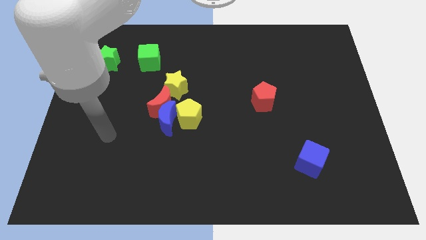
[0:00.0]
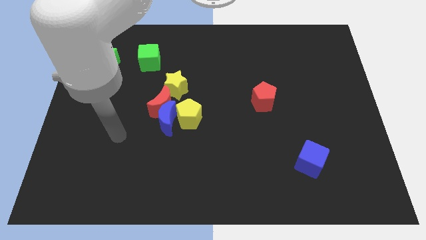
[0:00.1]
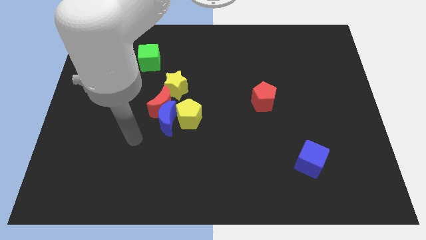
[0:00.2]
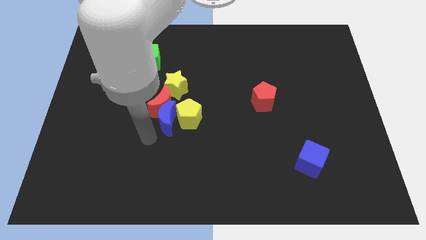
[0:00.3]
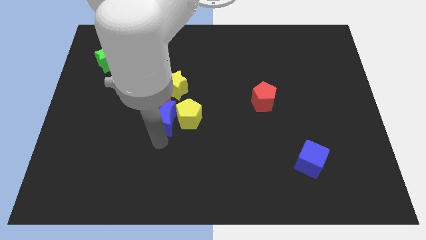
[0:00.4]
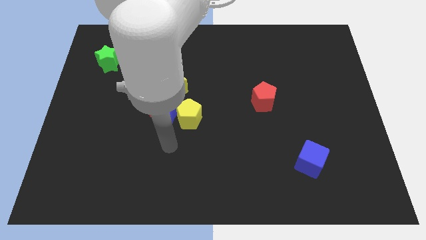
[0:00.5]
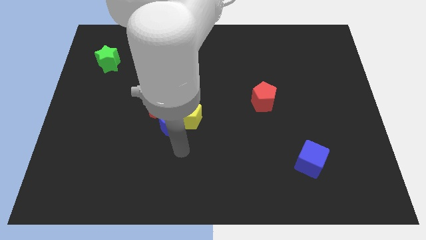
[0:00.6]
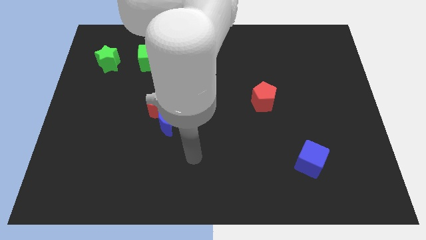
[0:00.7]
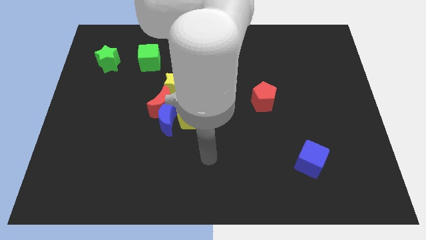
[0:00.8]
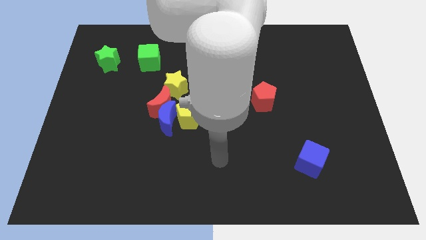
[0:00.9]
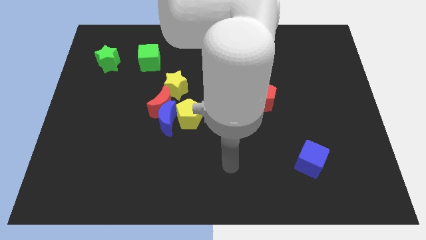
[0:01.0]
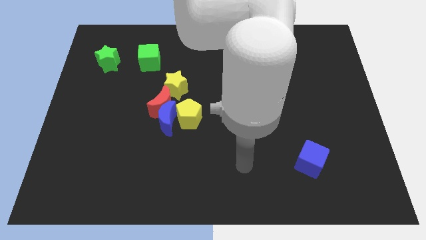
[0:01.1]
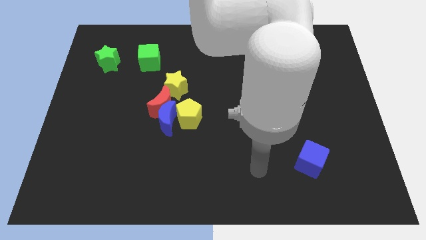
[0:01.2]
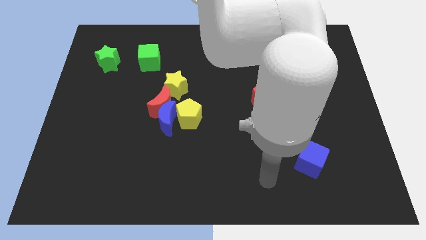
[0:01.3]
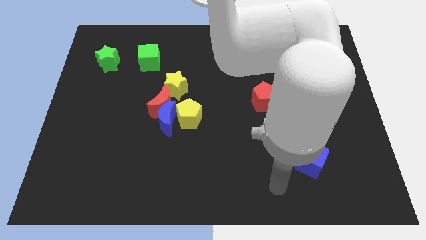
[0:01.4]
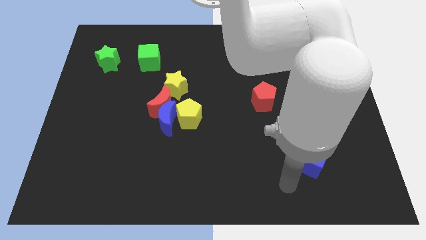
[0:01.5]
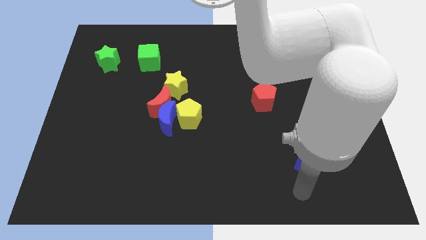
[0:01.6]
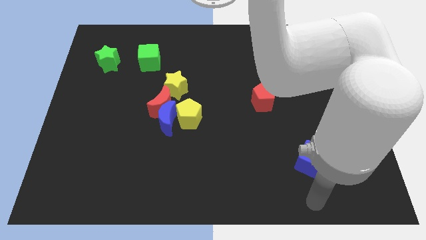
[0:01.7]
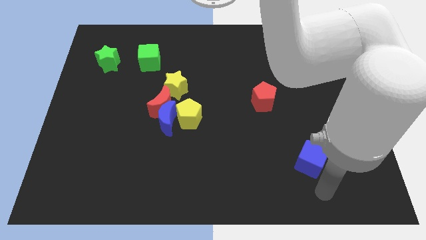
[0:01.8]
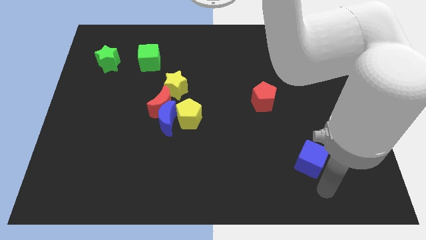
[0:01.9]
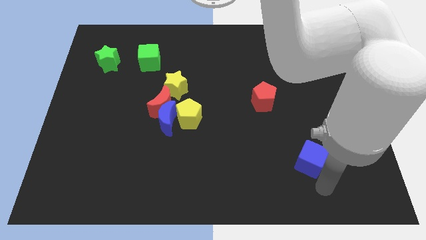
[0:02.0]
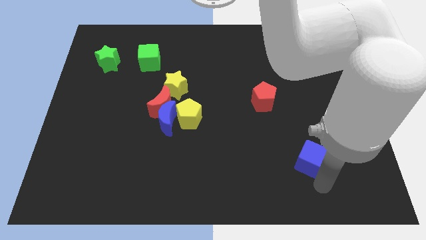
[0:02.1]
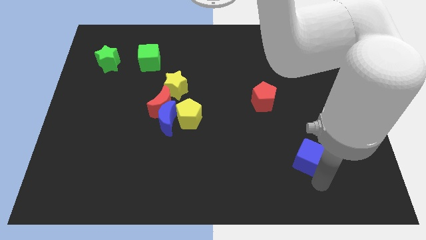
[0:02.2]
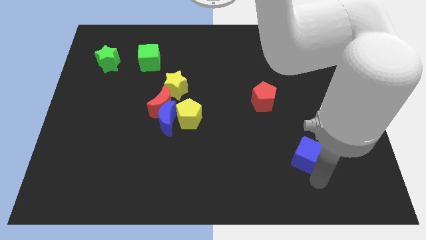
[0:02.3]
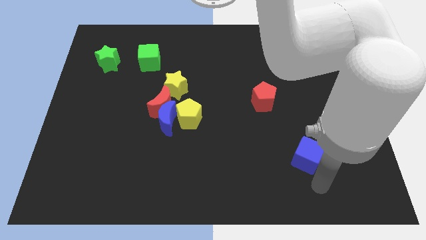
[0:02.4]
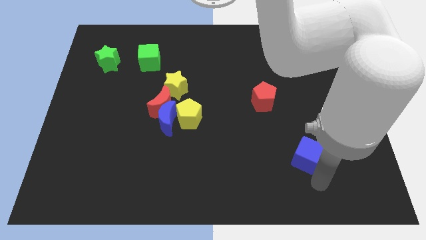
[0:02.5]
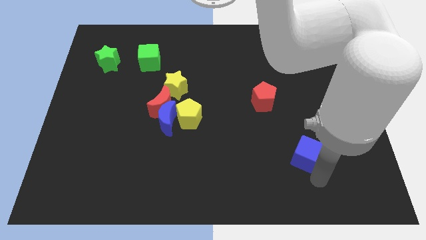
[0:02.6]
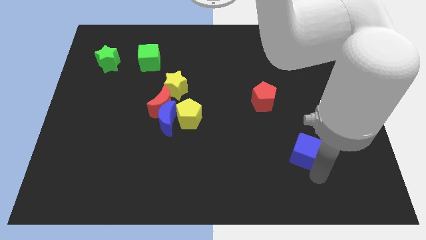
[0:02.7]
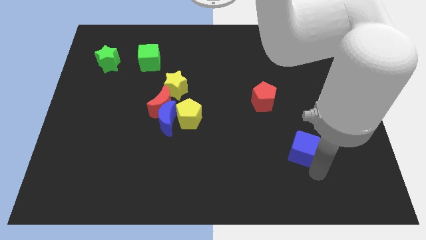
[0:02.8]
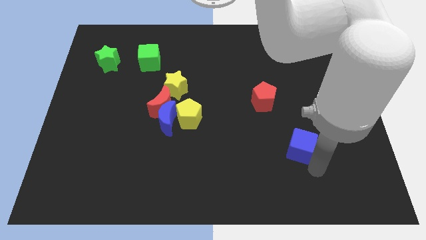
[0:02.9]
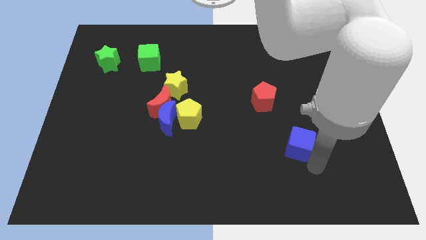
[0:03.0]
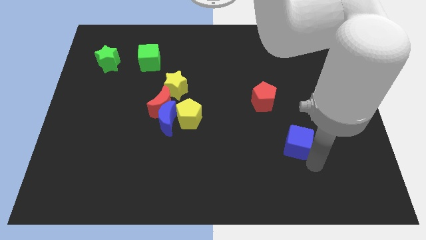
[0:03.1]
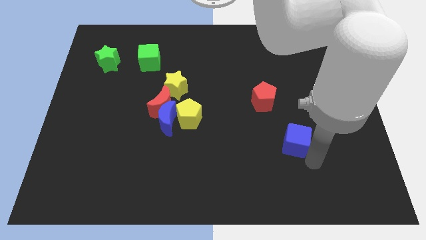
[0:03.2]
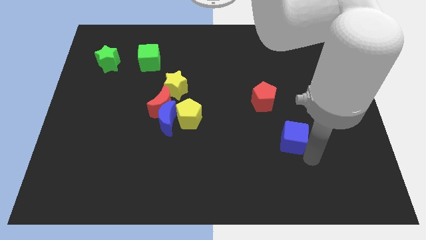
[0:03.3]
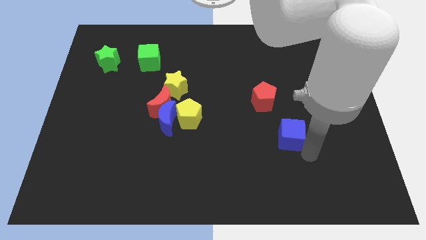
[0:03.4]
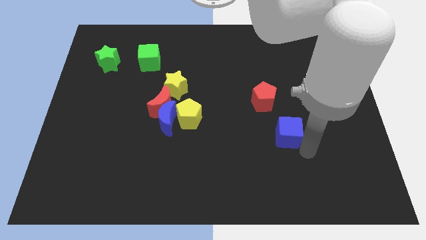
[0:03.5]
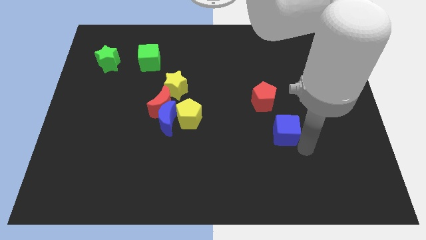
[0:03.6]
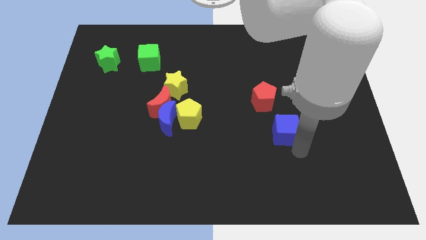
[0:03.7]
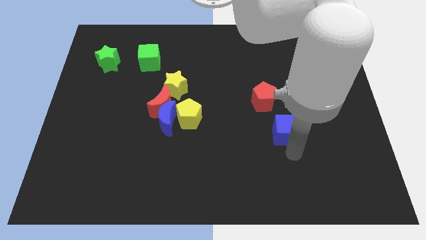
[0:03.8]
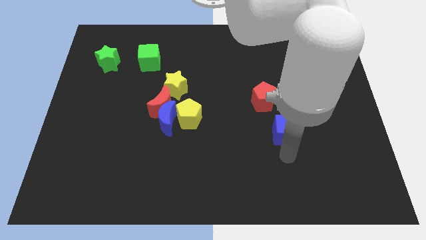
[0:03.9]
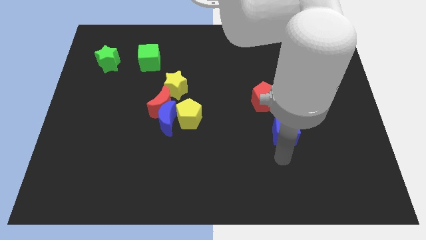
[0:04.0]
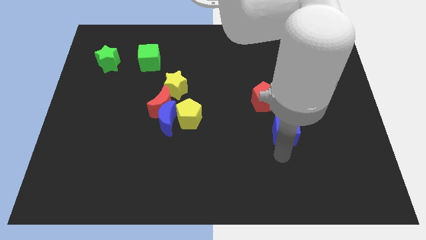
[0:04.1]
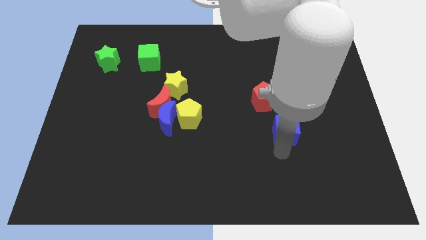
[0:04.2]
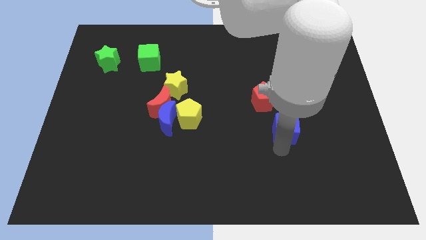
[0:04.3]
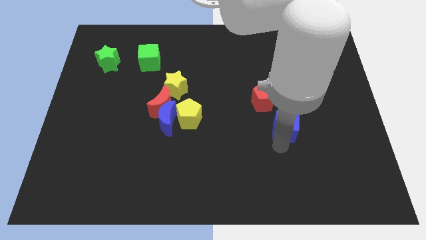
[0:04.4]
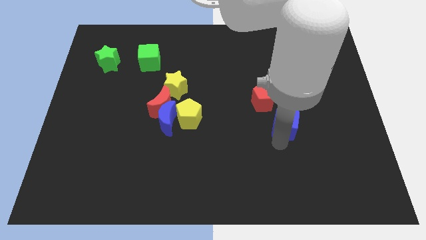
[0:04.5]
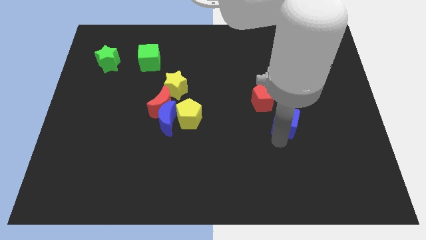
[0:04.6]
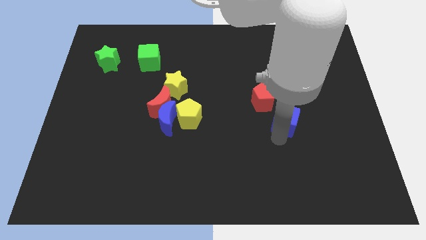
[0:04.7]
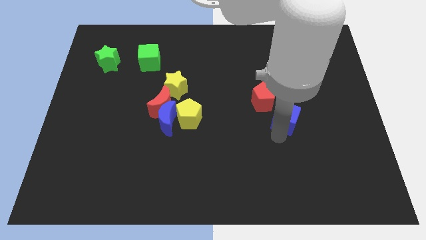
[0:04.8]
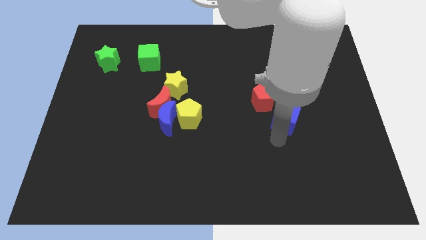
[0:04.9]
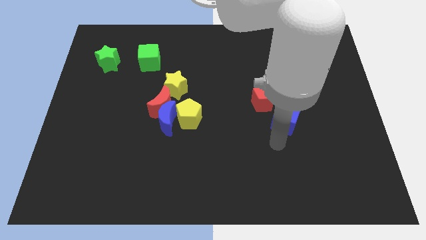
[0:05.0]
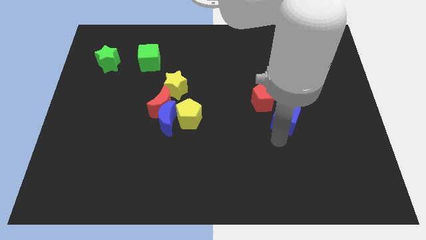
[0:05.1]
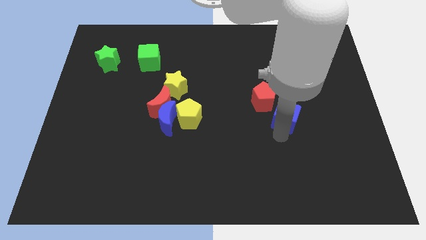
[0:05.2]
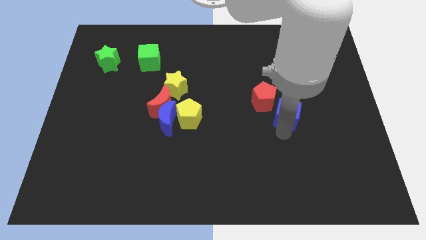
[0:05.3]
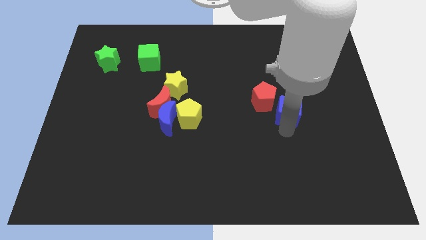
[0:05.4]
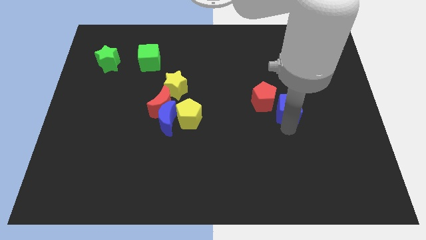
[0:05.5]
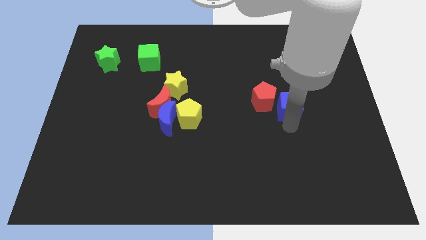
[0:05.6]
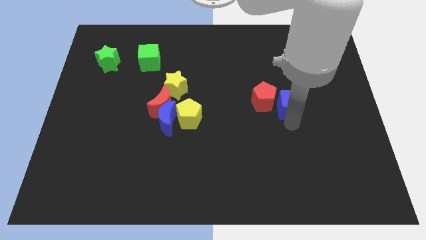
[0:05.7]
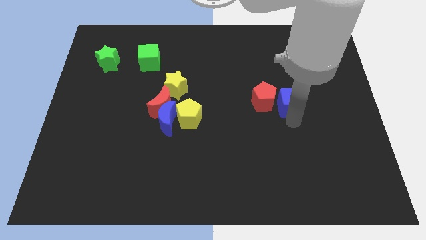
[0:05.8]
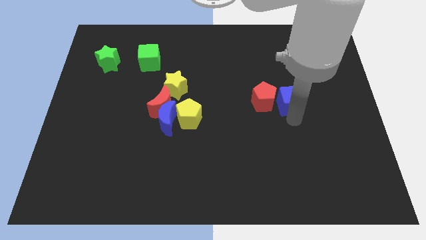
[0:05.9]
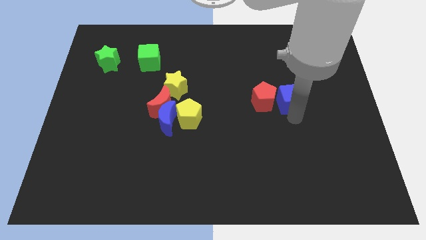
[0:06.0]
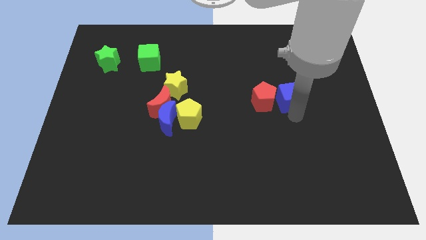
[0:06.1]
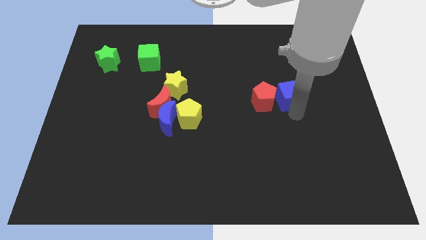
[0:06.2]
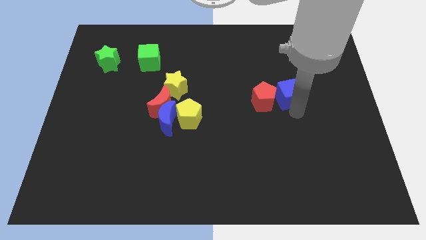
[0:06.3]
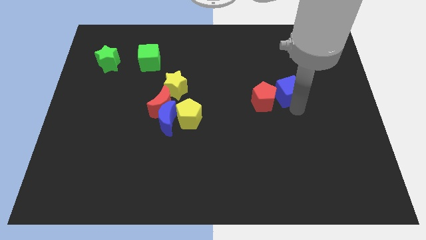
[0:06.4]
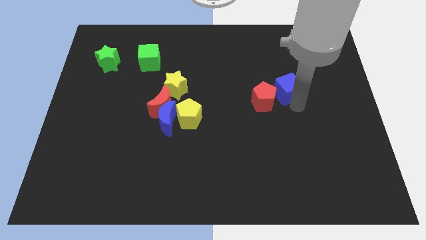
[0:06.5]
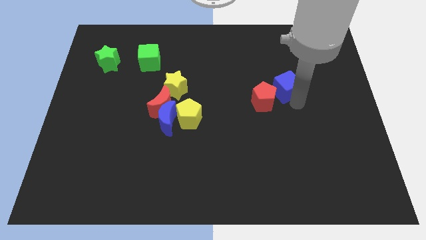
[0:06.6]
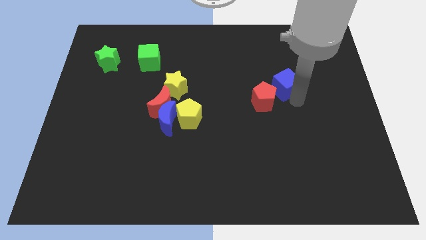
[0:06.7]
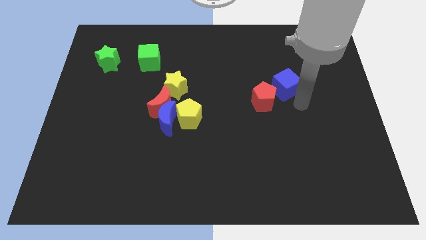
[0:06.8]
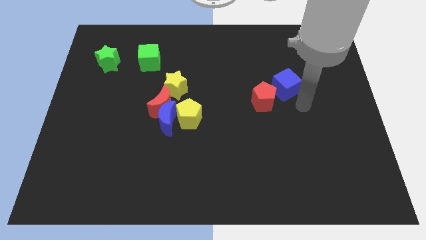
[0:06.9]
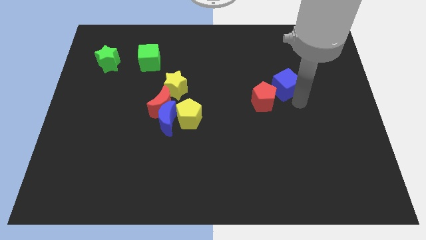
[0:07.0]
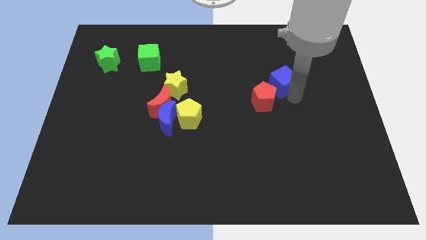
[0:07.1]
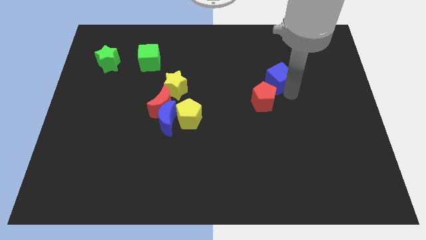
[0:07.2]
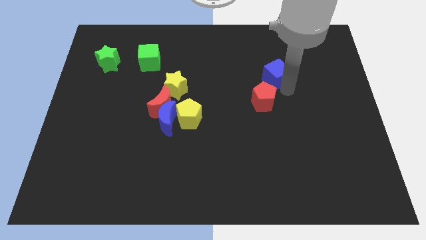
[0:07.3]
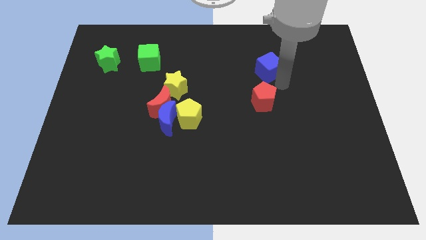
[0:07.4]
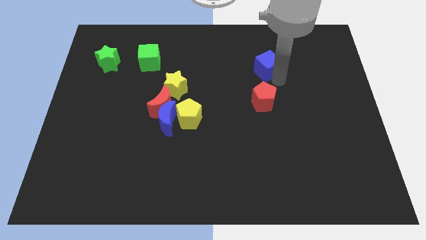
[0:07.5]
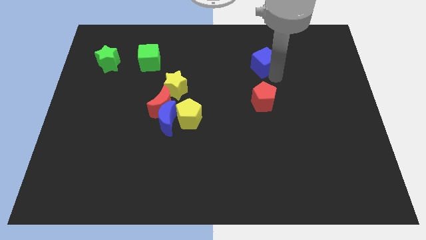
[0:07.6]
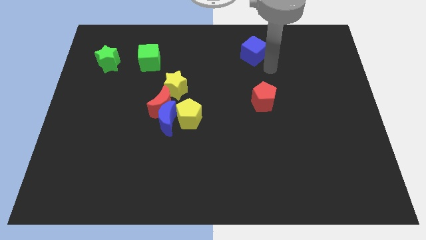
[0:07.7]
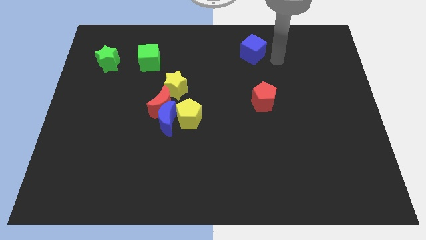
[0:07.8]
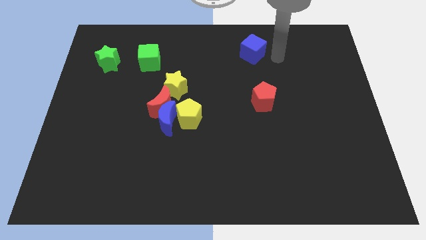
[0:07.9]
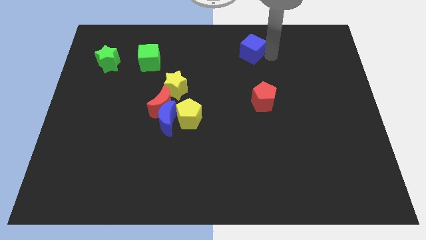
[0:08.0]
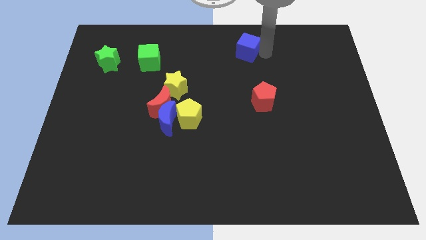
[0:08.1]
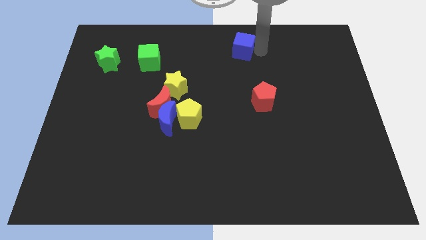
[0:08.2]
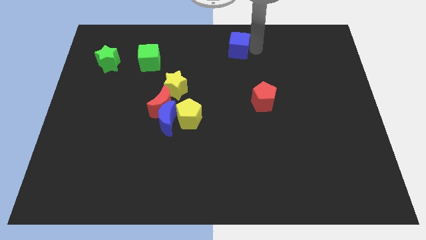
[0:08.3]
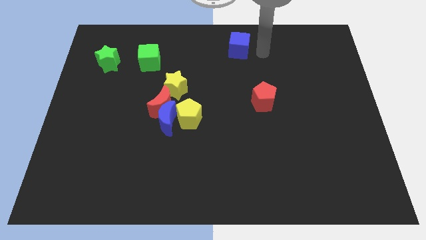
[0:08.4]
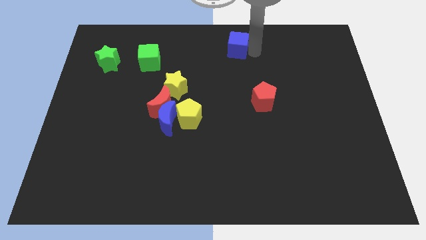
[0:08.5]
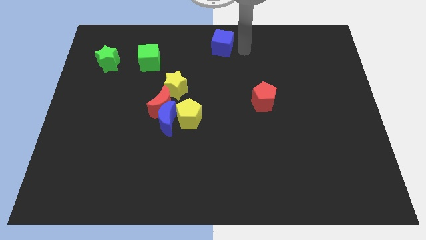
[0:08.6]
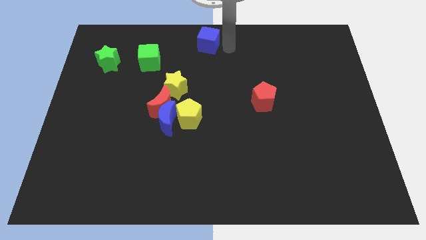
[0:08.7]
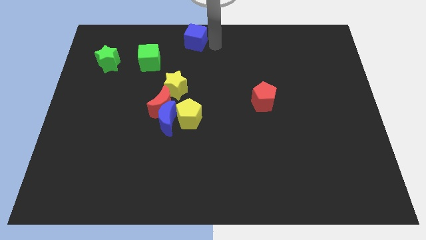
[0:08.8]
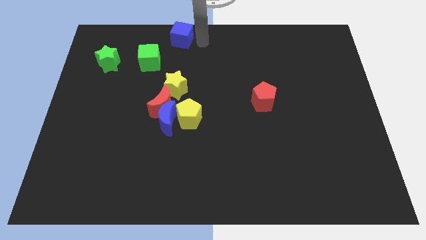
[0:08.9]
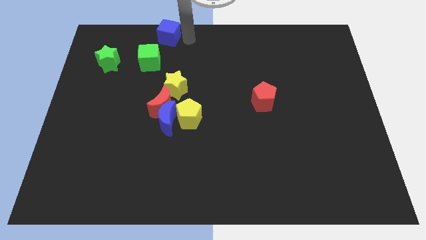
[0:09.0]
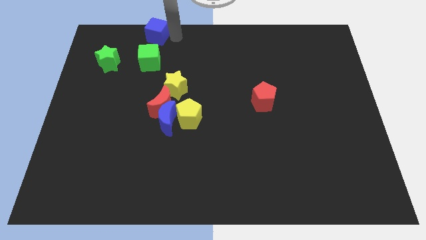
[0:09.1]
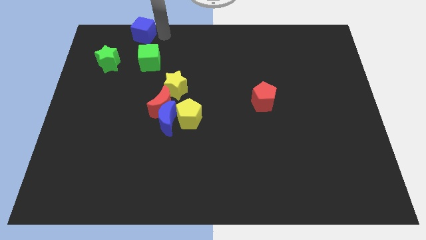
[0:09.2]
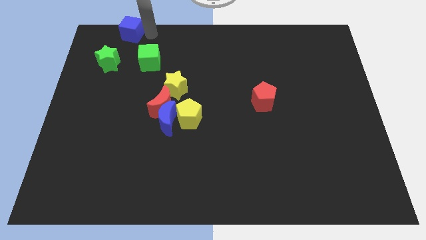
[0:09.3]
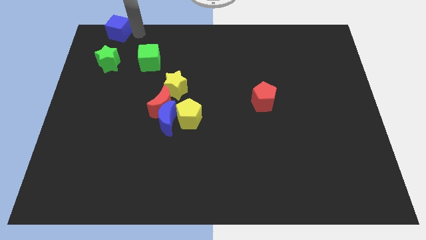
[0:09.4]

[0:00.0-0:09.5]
push the blue cube to the top left corner
